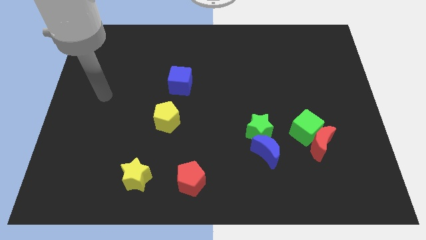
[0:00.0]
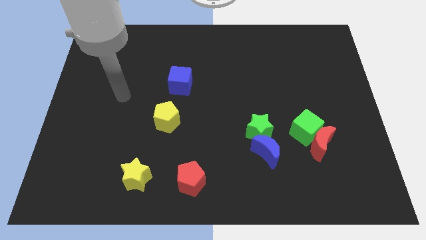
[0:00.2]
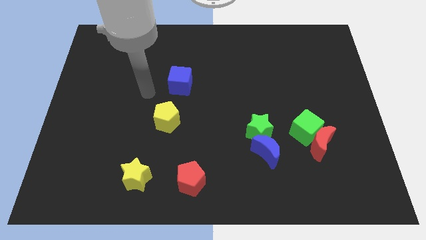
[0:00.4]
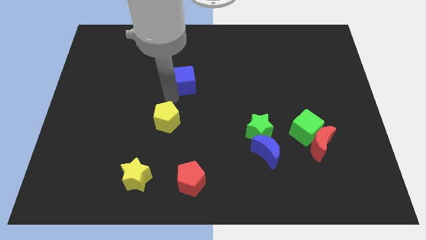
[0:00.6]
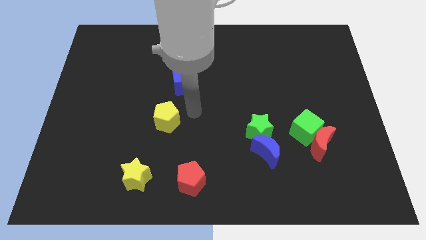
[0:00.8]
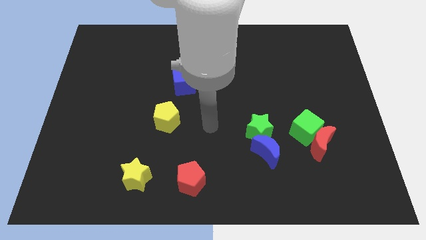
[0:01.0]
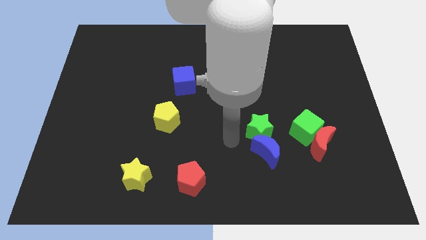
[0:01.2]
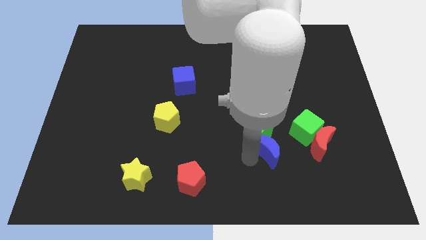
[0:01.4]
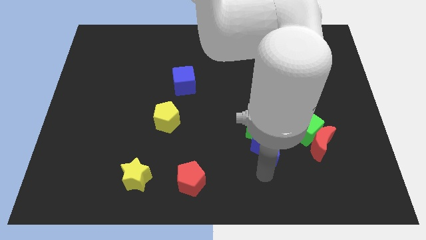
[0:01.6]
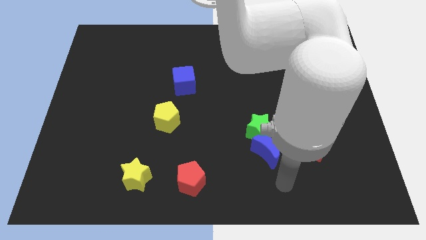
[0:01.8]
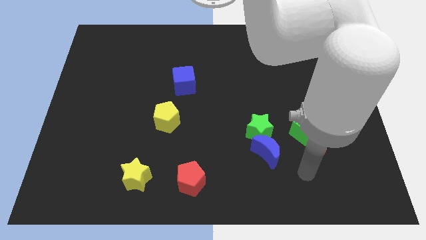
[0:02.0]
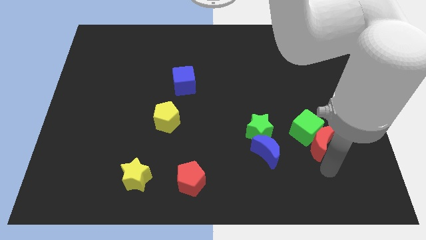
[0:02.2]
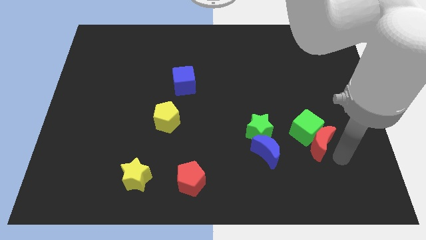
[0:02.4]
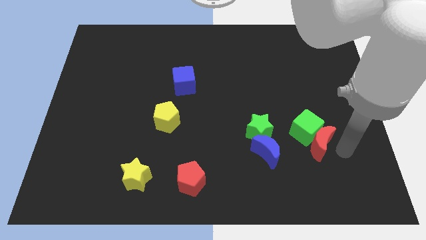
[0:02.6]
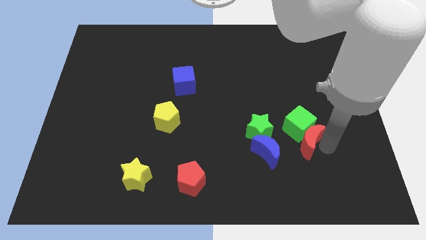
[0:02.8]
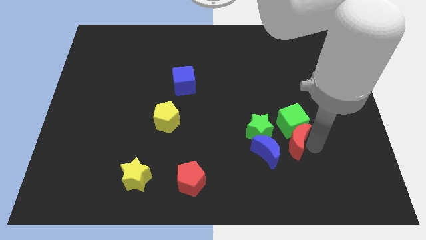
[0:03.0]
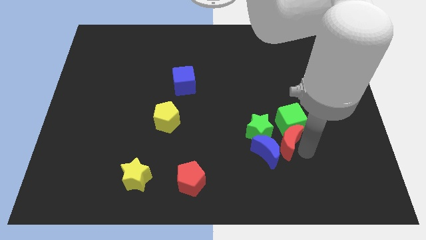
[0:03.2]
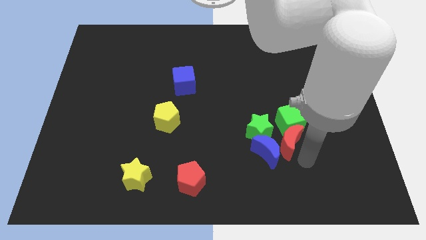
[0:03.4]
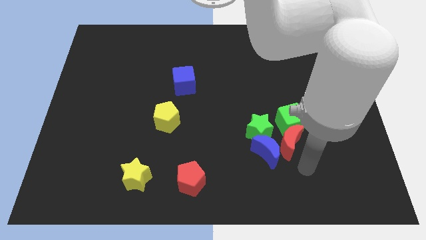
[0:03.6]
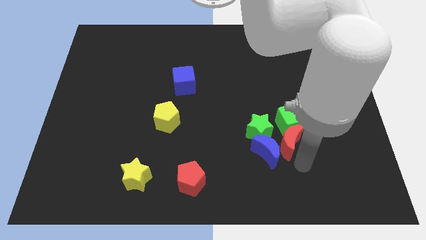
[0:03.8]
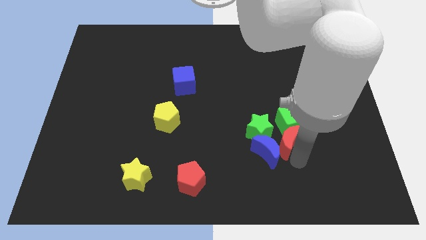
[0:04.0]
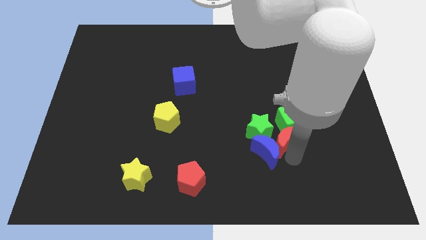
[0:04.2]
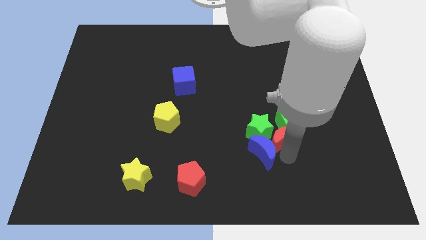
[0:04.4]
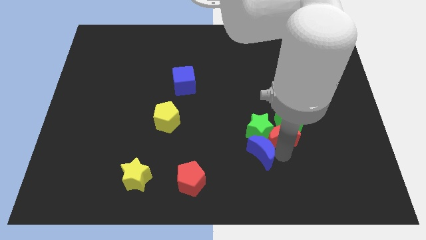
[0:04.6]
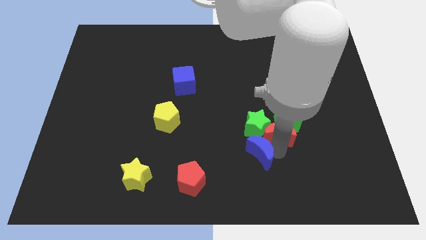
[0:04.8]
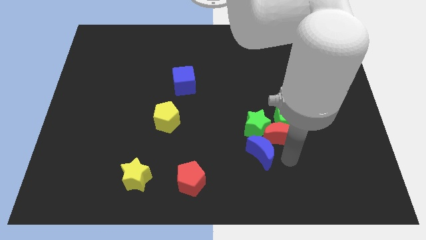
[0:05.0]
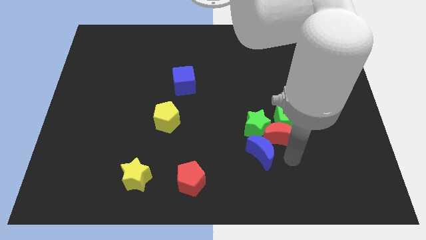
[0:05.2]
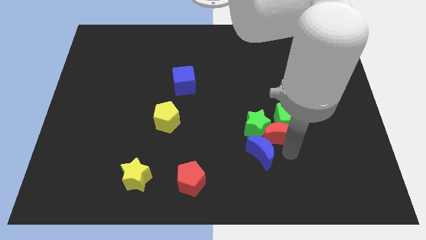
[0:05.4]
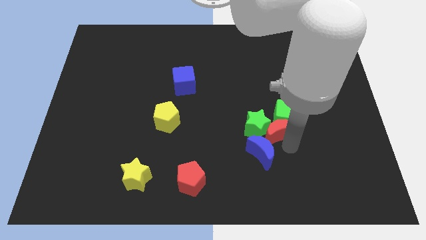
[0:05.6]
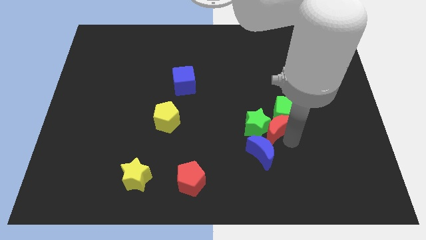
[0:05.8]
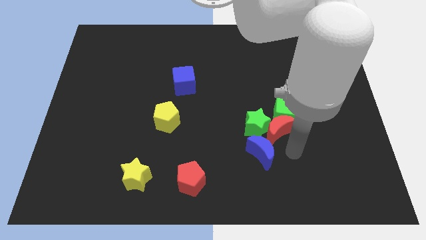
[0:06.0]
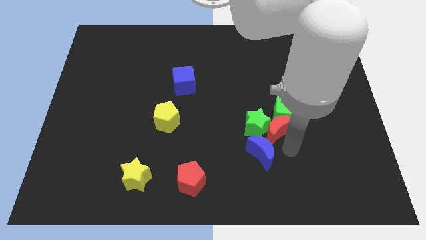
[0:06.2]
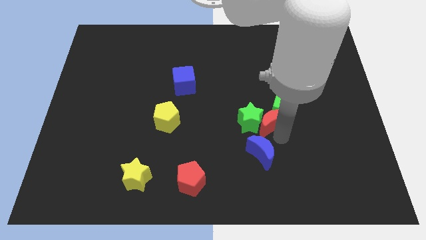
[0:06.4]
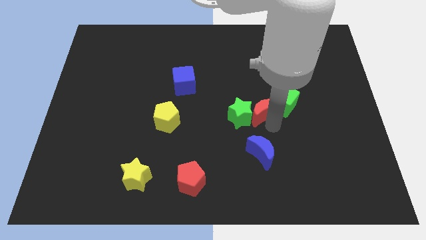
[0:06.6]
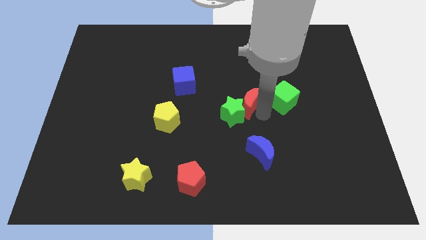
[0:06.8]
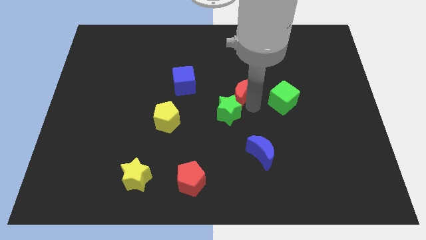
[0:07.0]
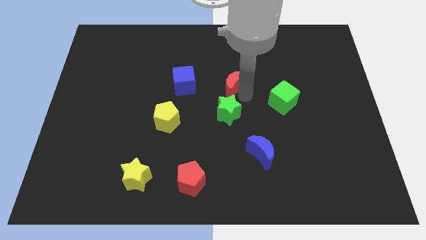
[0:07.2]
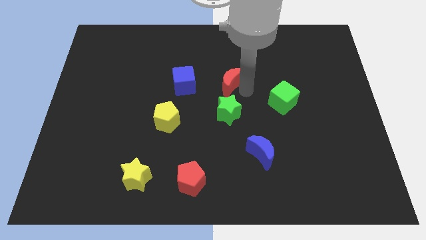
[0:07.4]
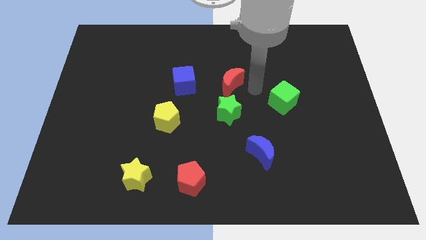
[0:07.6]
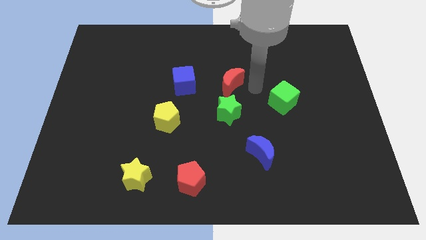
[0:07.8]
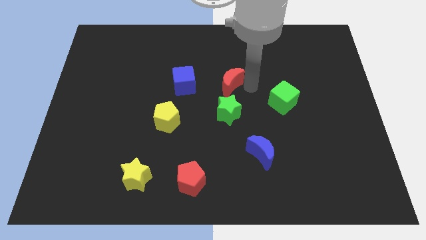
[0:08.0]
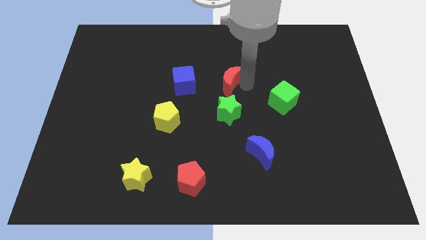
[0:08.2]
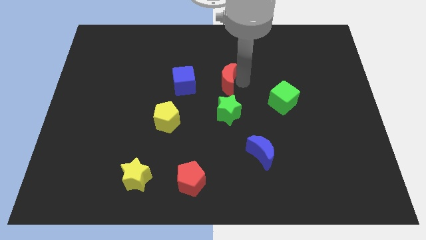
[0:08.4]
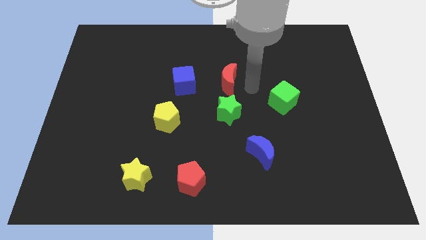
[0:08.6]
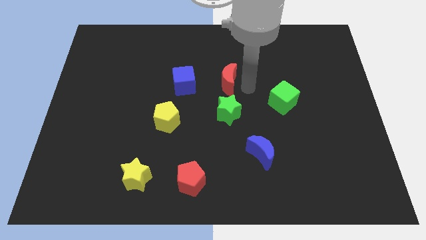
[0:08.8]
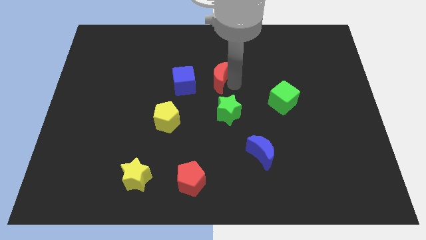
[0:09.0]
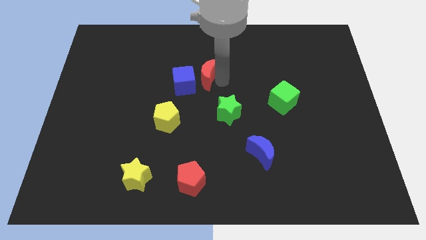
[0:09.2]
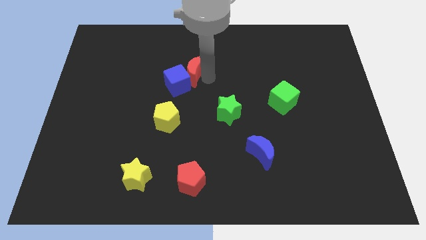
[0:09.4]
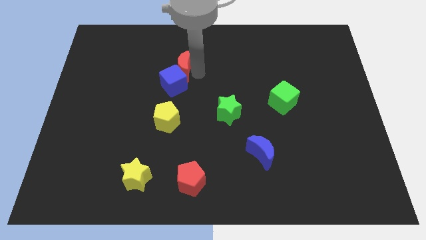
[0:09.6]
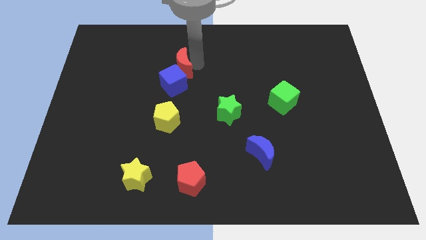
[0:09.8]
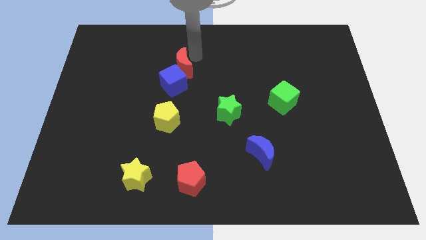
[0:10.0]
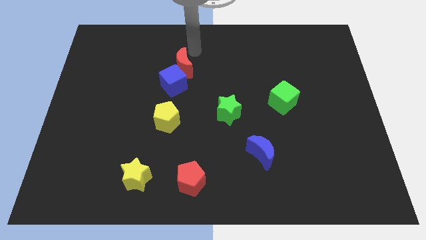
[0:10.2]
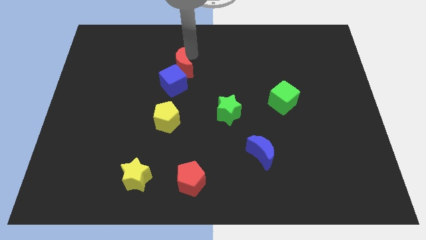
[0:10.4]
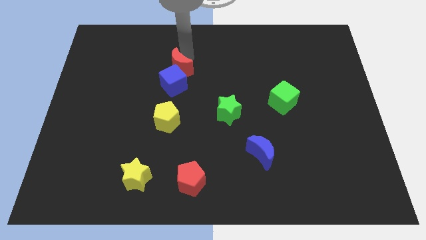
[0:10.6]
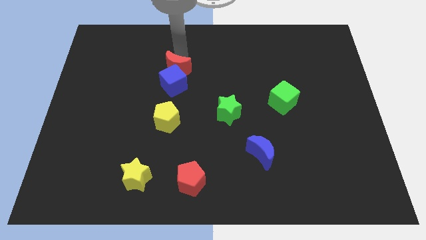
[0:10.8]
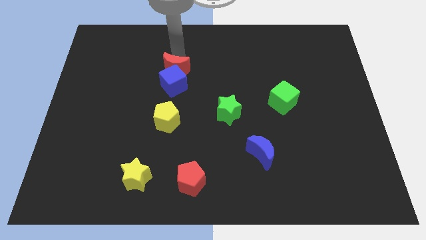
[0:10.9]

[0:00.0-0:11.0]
put the red moon above the yellow pentagon

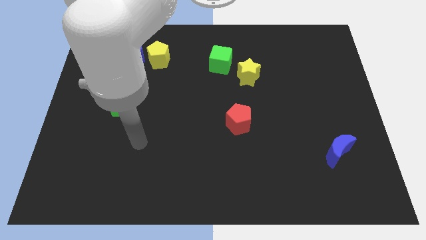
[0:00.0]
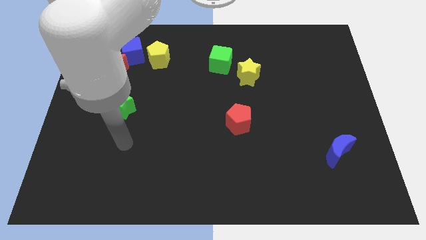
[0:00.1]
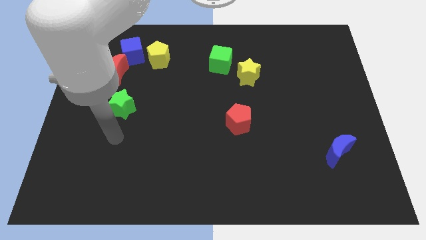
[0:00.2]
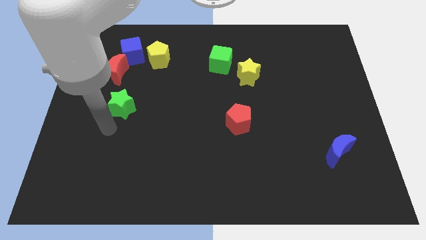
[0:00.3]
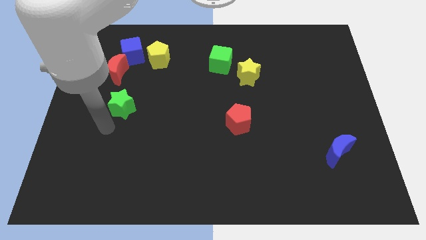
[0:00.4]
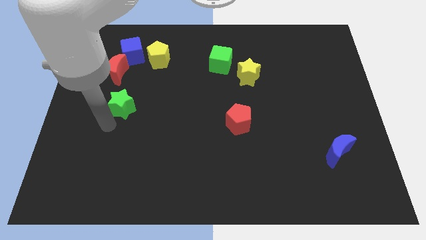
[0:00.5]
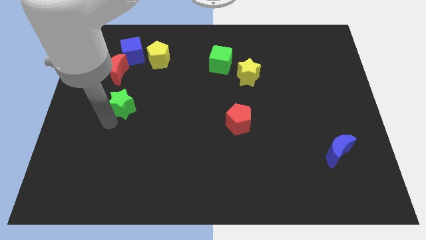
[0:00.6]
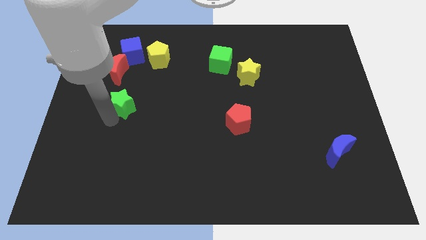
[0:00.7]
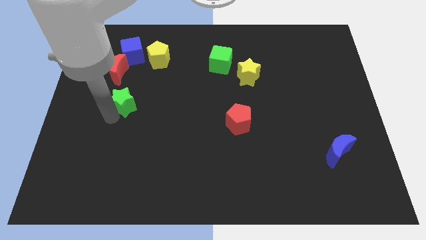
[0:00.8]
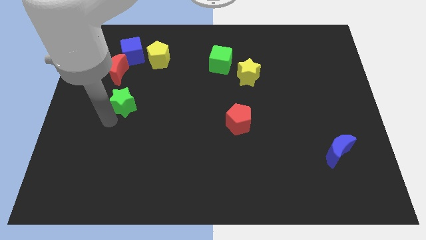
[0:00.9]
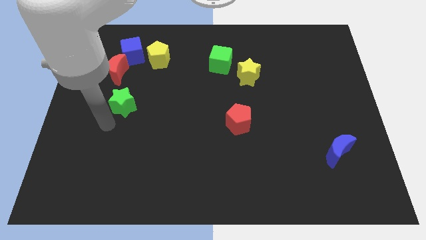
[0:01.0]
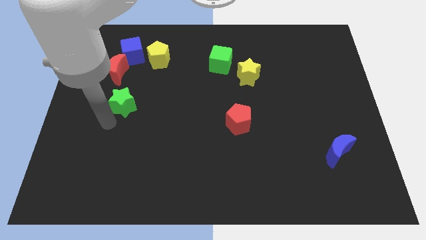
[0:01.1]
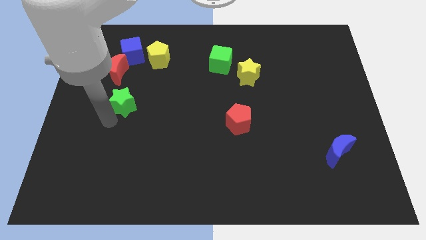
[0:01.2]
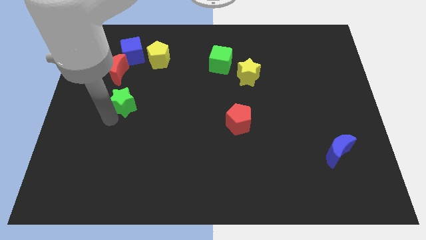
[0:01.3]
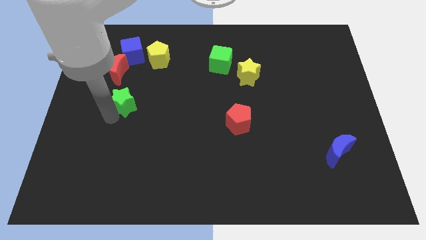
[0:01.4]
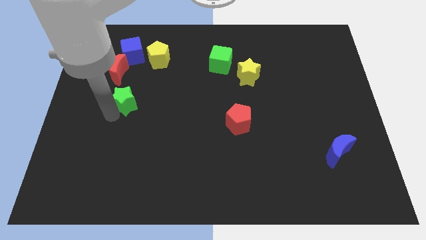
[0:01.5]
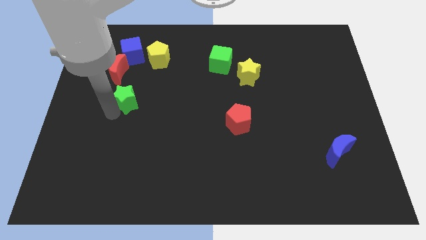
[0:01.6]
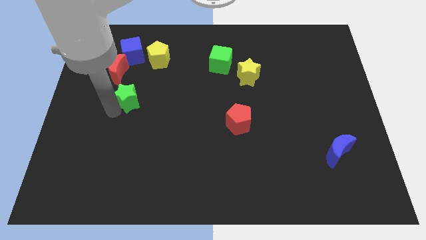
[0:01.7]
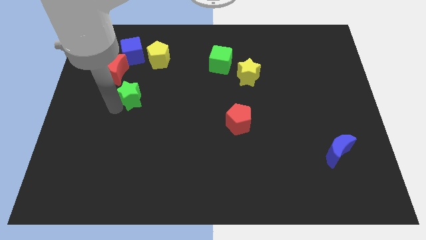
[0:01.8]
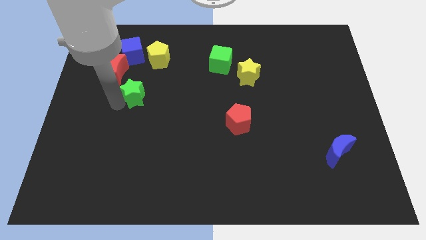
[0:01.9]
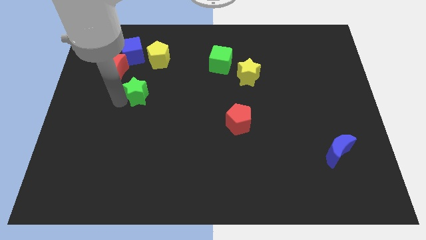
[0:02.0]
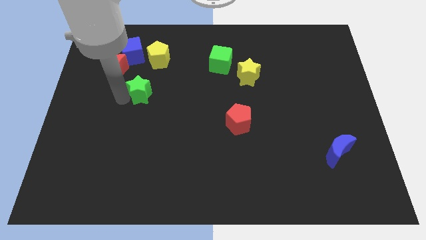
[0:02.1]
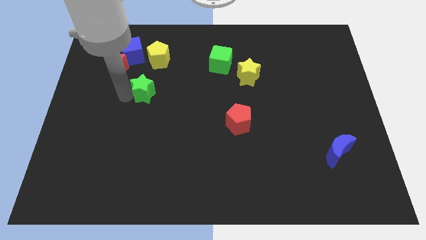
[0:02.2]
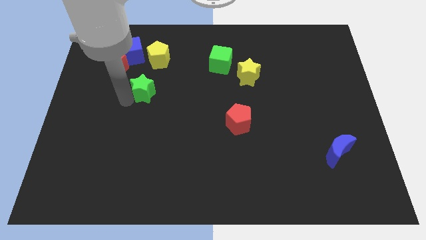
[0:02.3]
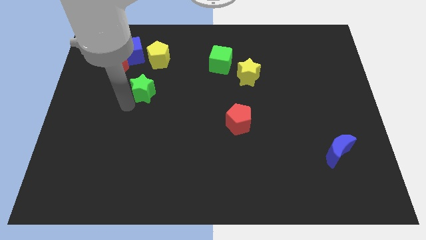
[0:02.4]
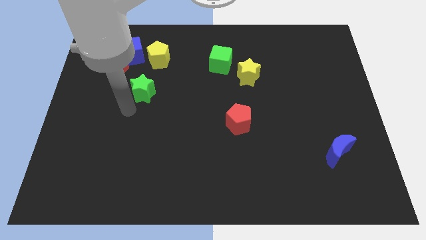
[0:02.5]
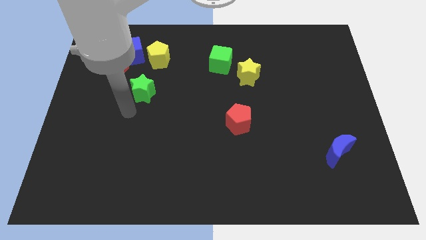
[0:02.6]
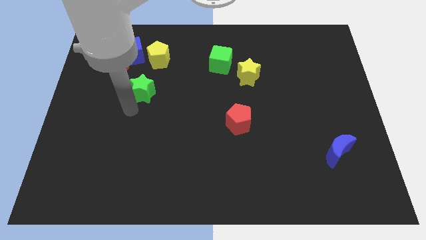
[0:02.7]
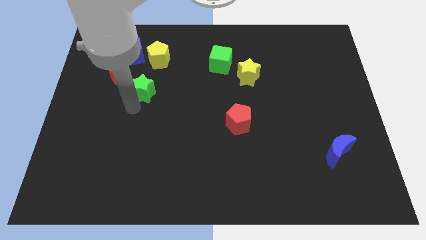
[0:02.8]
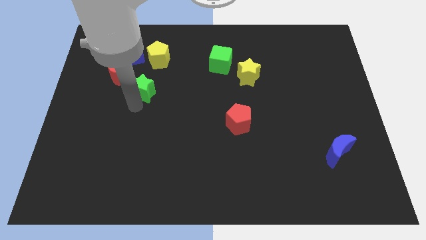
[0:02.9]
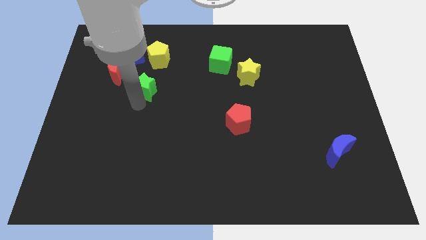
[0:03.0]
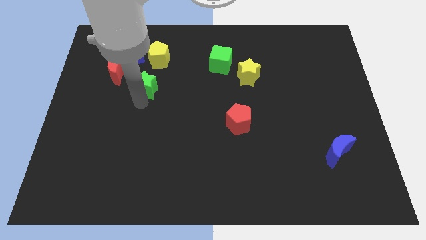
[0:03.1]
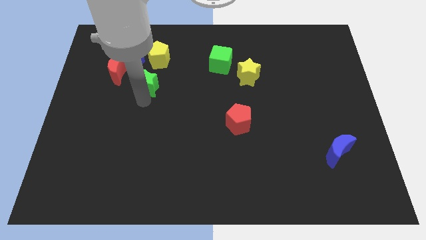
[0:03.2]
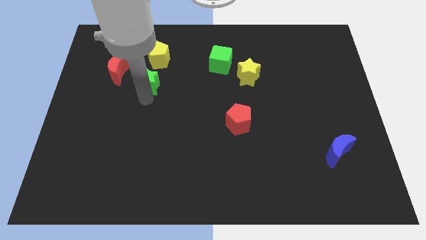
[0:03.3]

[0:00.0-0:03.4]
move the green star to the right side of the red moon
